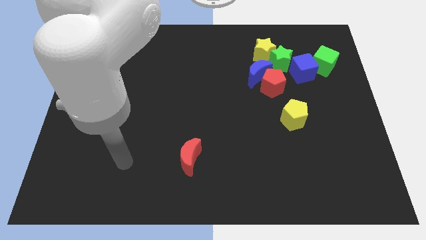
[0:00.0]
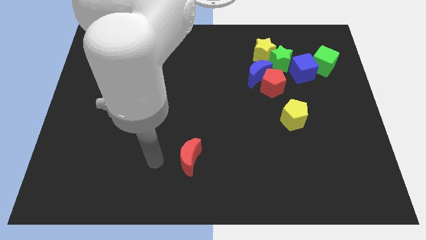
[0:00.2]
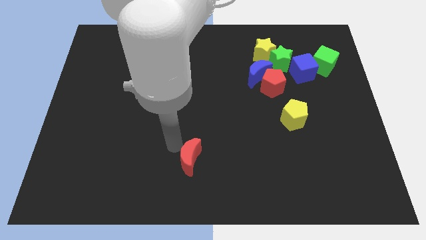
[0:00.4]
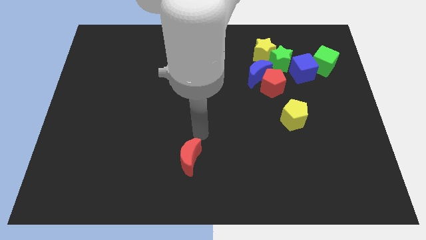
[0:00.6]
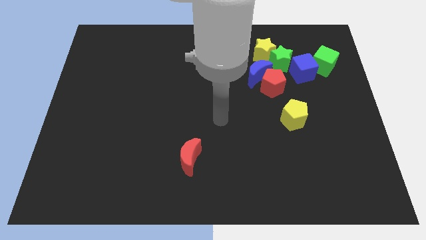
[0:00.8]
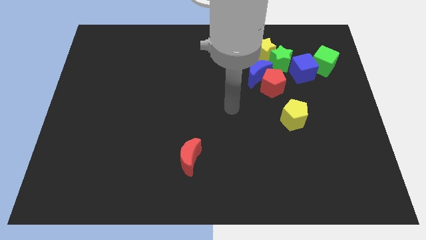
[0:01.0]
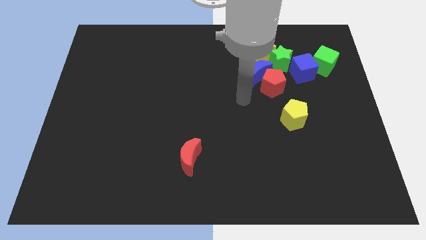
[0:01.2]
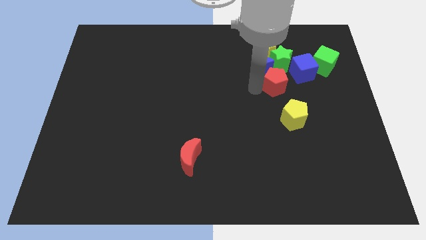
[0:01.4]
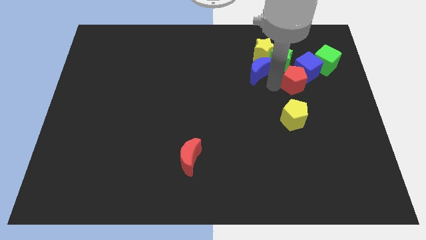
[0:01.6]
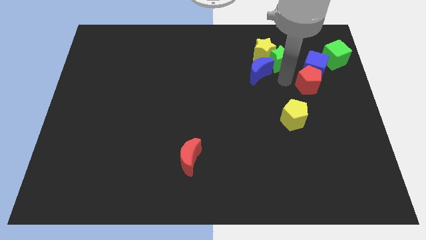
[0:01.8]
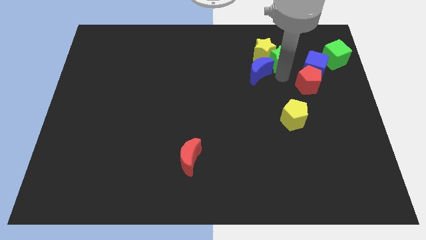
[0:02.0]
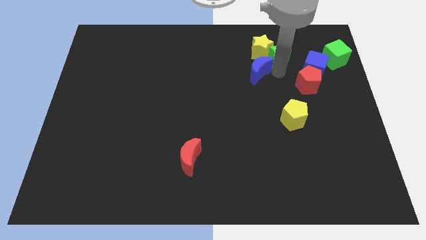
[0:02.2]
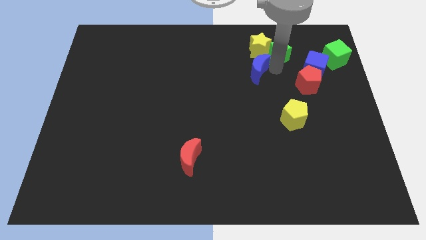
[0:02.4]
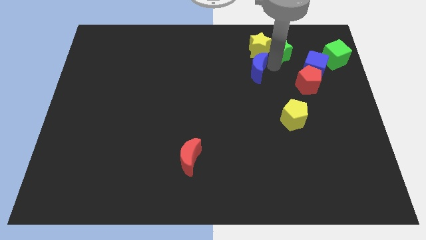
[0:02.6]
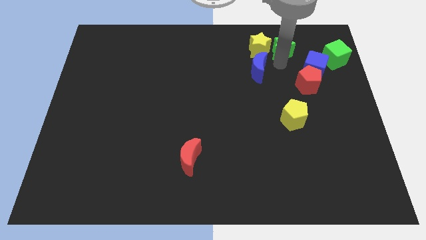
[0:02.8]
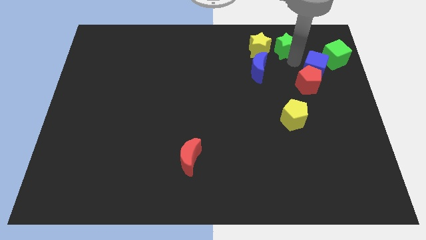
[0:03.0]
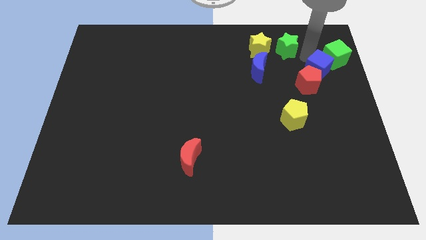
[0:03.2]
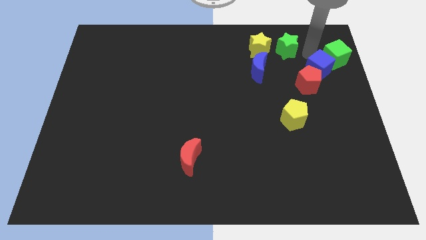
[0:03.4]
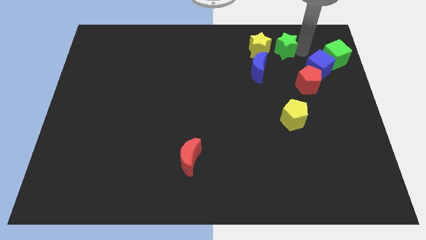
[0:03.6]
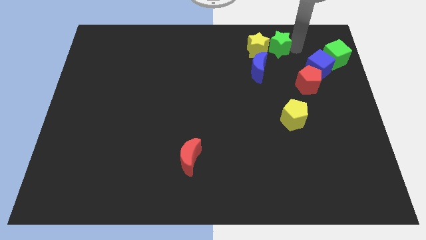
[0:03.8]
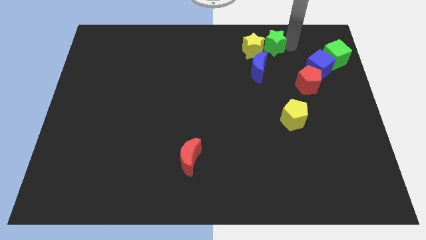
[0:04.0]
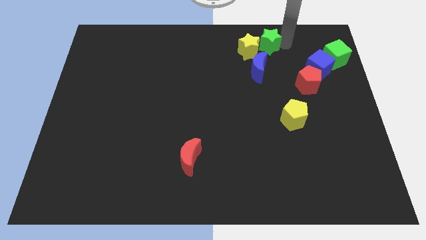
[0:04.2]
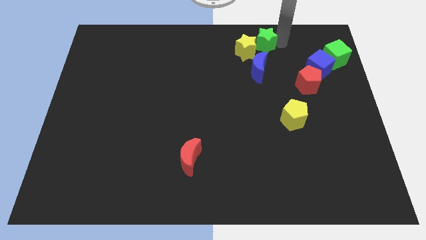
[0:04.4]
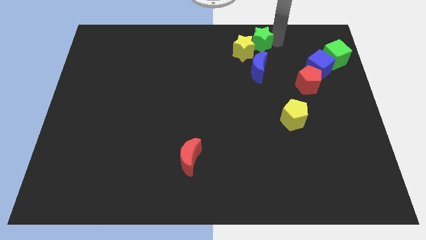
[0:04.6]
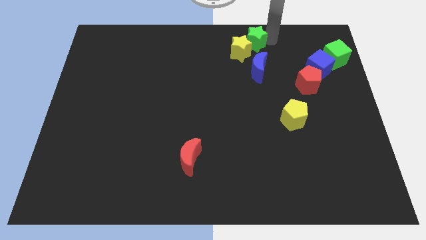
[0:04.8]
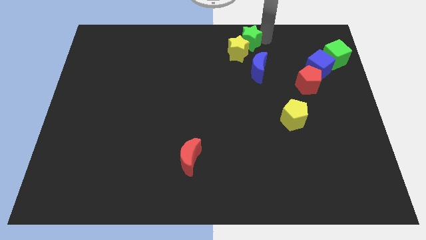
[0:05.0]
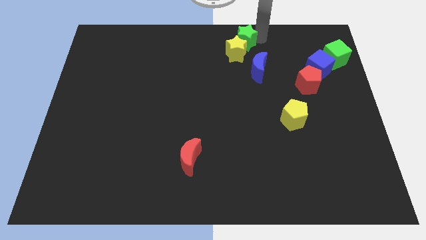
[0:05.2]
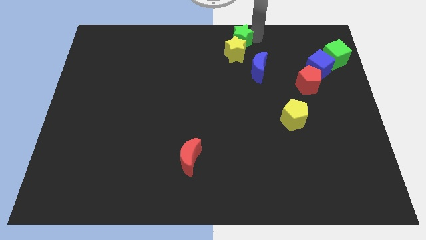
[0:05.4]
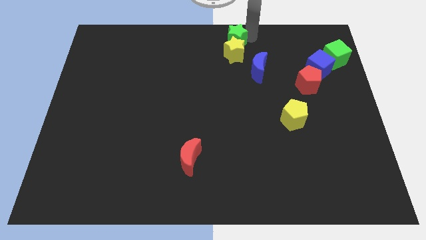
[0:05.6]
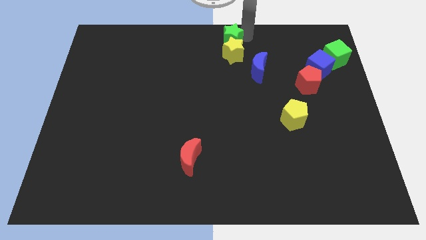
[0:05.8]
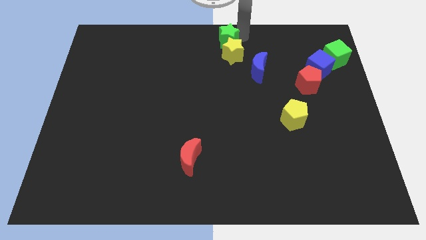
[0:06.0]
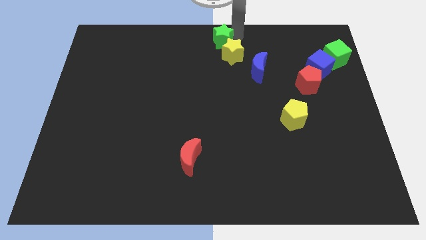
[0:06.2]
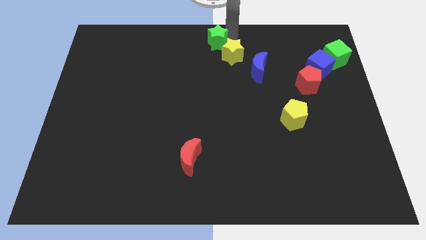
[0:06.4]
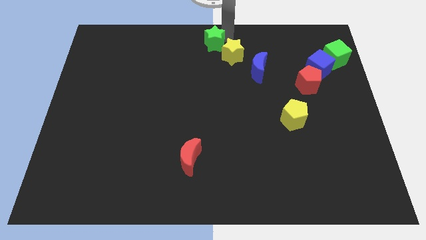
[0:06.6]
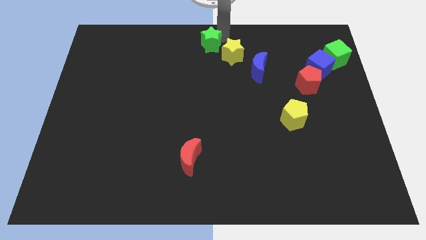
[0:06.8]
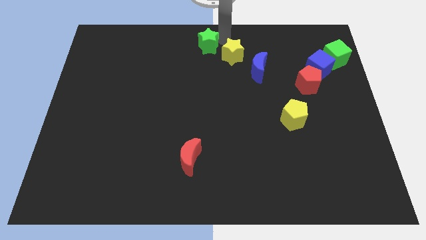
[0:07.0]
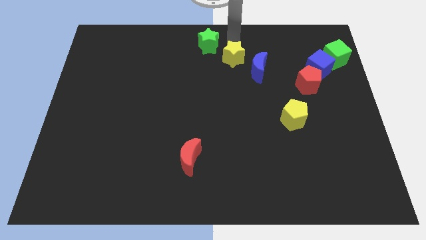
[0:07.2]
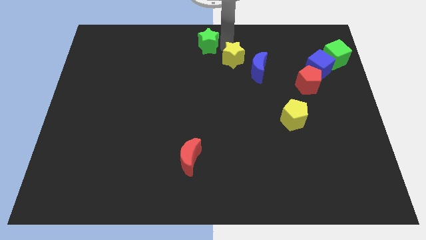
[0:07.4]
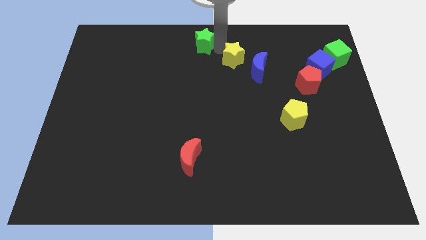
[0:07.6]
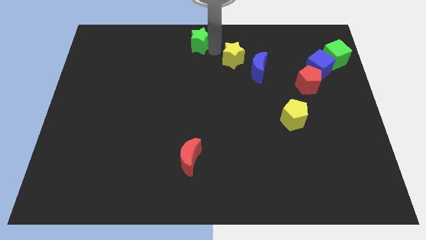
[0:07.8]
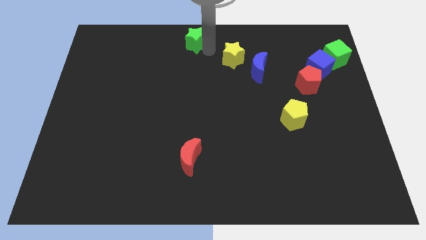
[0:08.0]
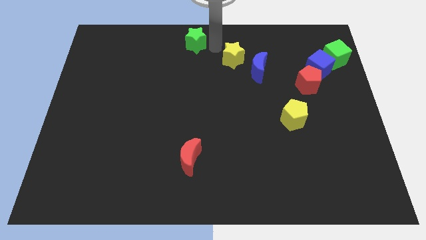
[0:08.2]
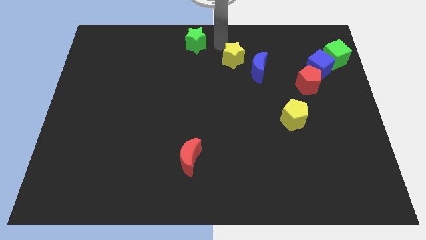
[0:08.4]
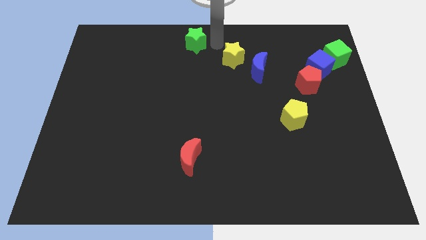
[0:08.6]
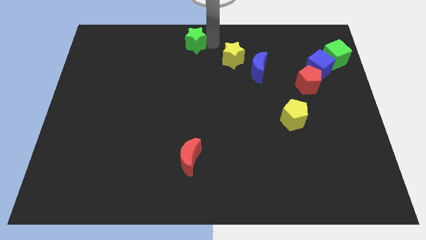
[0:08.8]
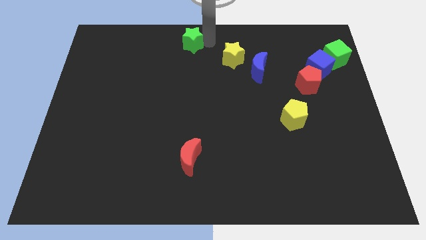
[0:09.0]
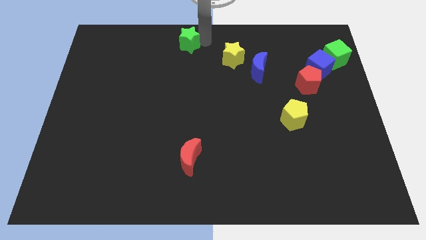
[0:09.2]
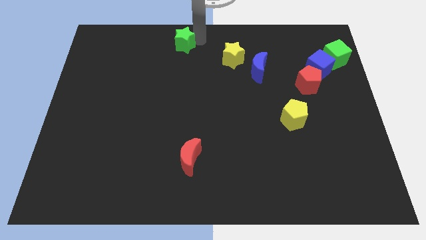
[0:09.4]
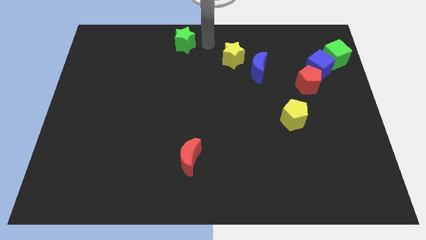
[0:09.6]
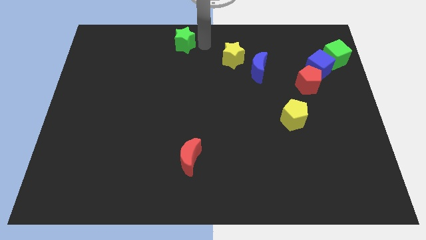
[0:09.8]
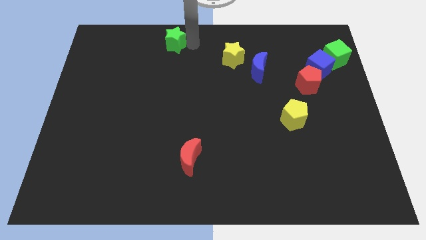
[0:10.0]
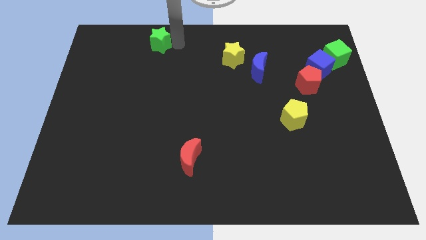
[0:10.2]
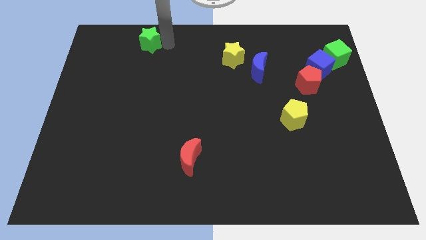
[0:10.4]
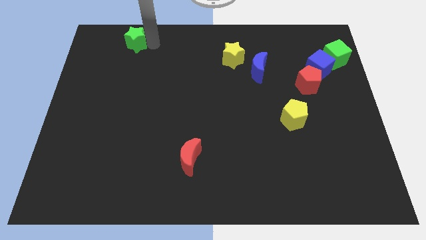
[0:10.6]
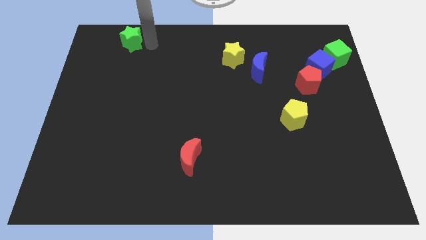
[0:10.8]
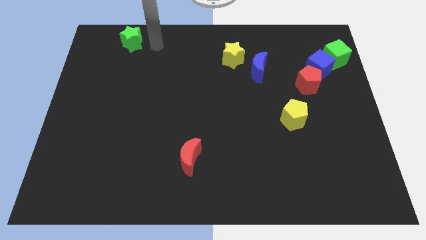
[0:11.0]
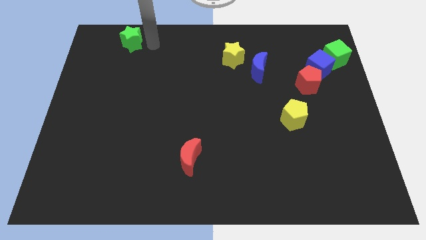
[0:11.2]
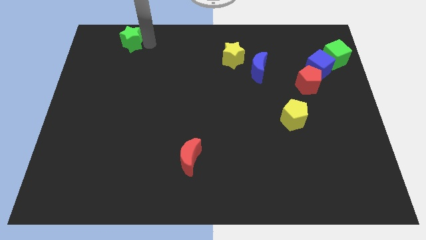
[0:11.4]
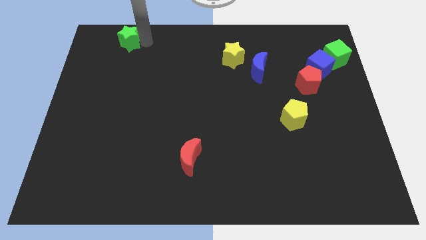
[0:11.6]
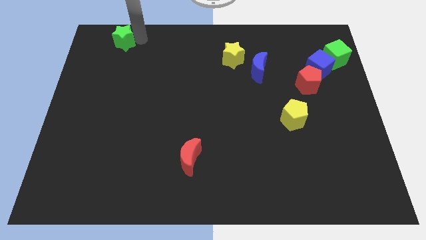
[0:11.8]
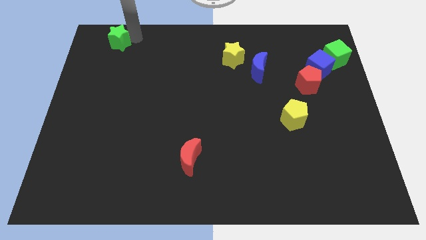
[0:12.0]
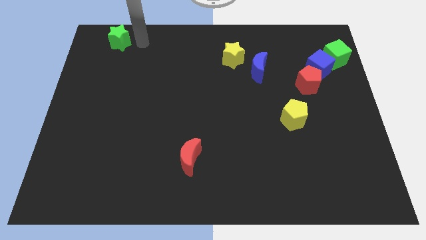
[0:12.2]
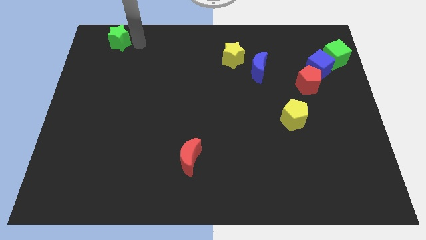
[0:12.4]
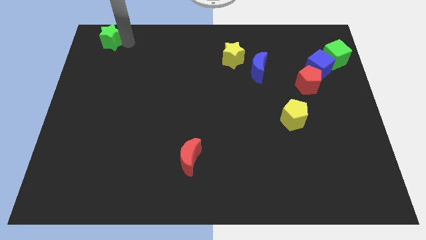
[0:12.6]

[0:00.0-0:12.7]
move the green star to the top left

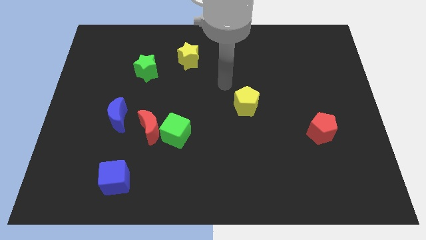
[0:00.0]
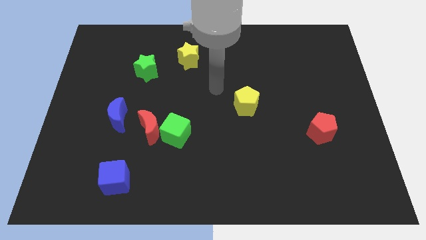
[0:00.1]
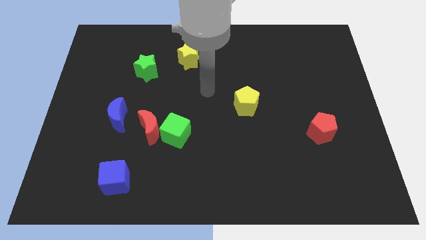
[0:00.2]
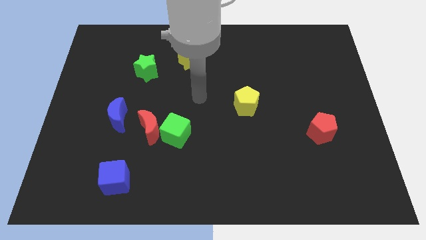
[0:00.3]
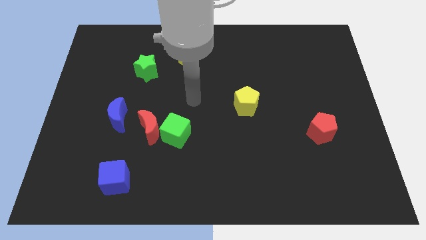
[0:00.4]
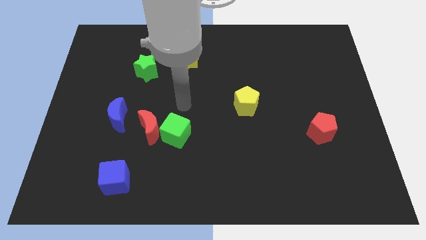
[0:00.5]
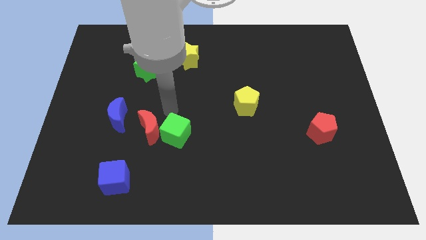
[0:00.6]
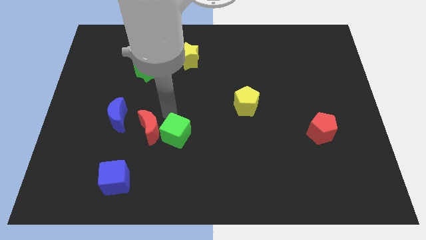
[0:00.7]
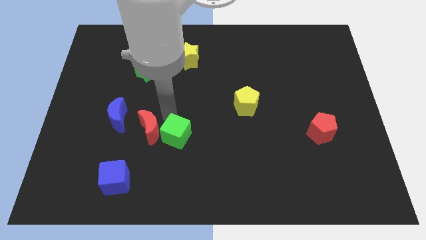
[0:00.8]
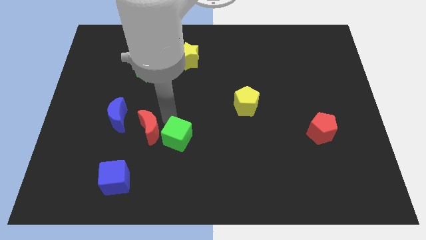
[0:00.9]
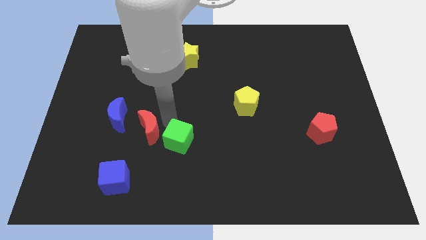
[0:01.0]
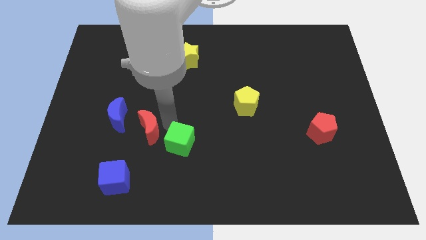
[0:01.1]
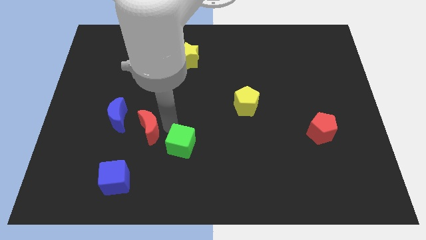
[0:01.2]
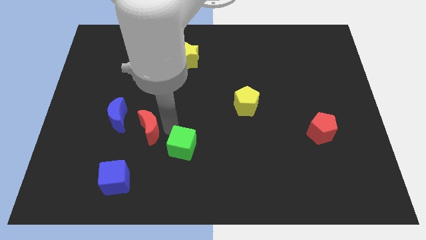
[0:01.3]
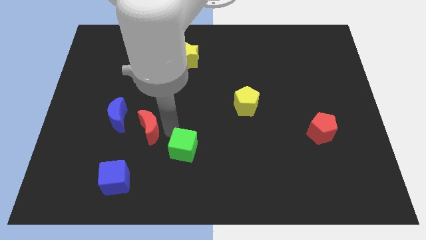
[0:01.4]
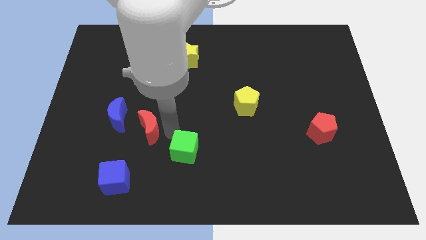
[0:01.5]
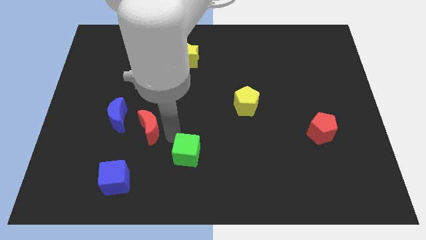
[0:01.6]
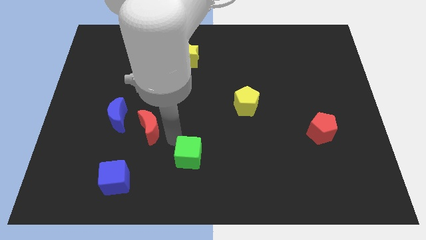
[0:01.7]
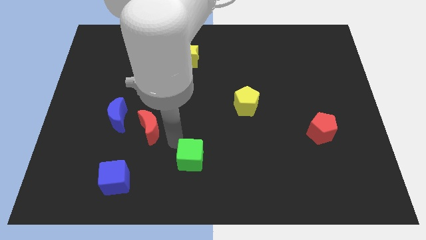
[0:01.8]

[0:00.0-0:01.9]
push the green cube to the bottom side
